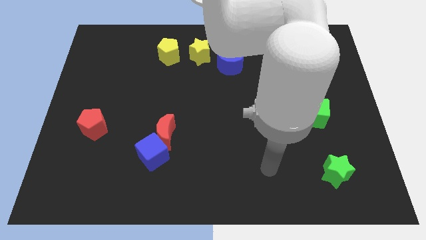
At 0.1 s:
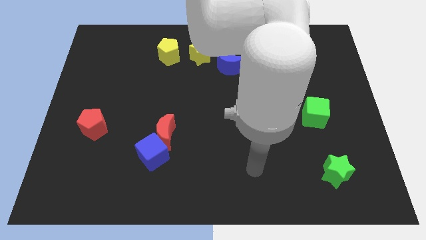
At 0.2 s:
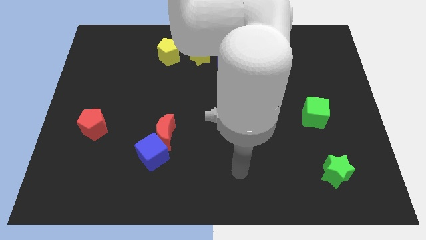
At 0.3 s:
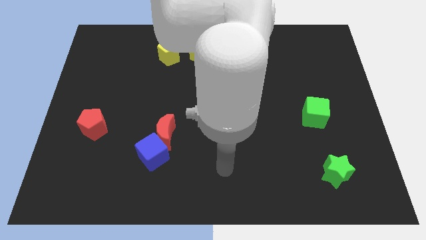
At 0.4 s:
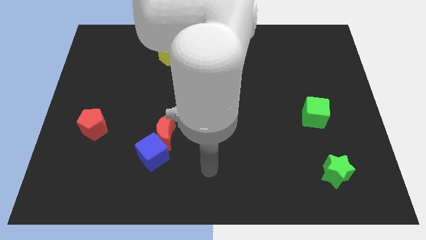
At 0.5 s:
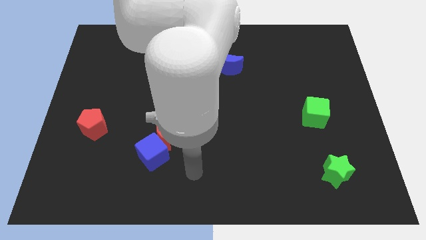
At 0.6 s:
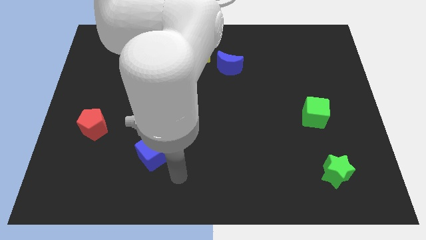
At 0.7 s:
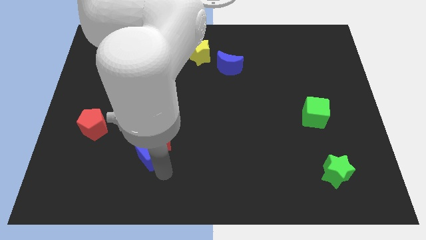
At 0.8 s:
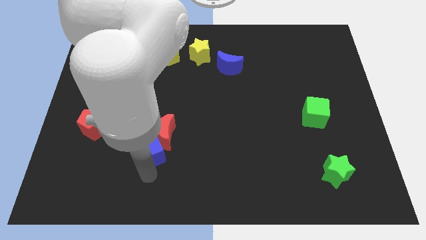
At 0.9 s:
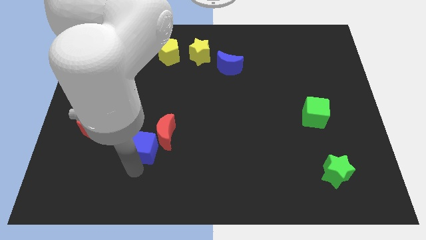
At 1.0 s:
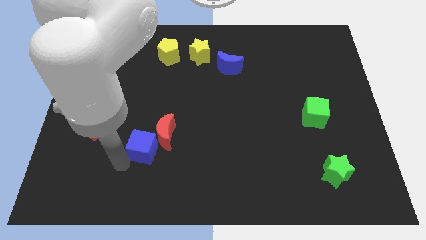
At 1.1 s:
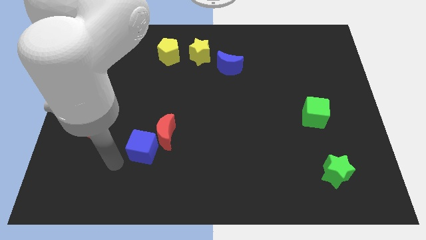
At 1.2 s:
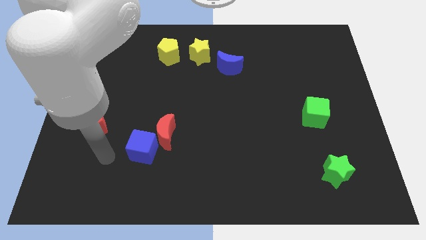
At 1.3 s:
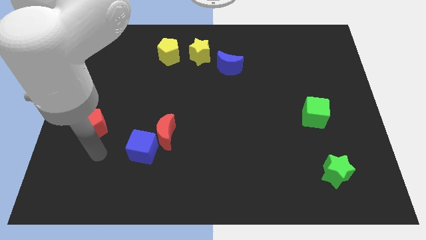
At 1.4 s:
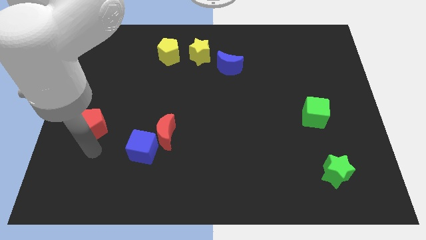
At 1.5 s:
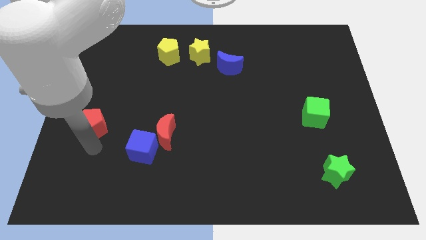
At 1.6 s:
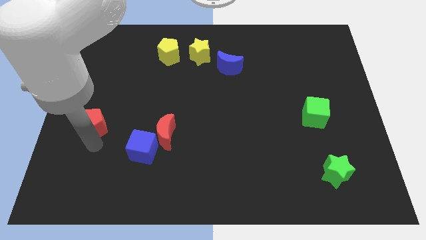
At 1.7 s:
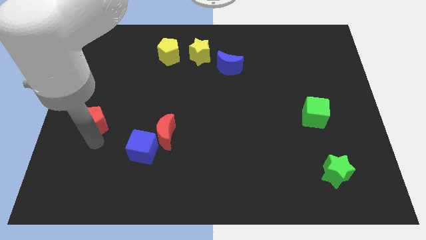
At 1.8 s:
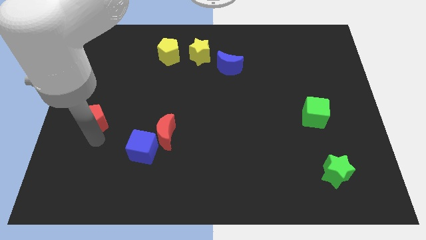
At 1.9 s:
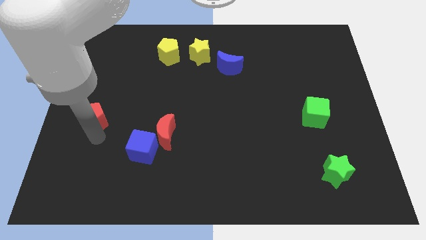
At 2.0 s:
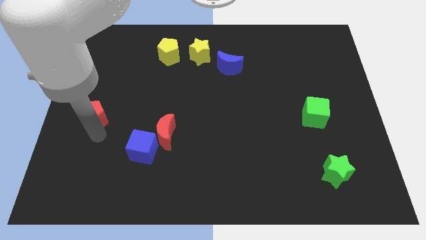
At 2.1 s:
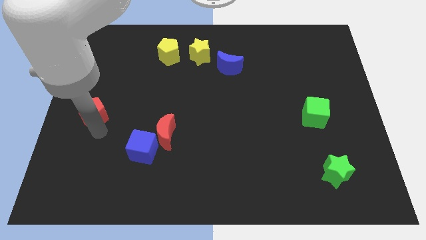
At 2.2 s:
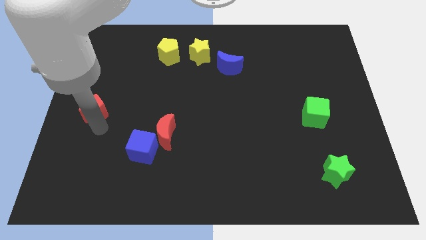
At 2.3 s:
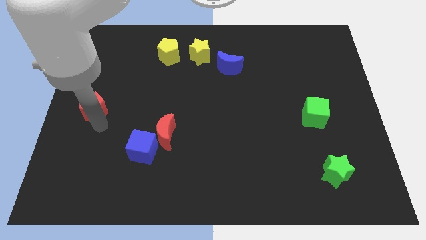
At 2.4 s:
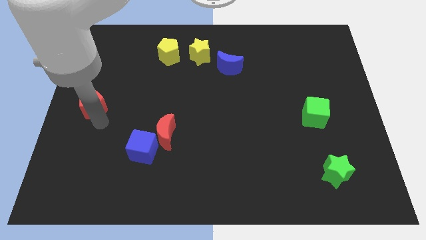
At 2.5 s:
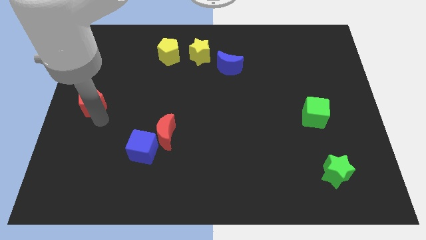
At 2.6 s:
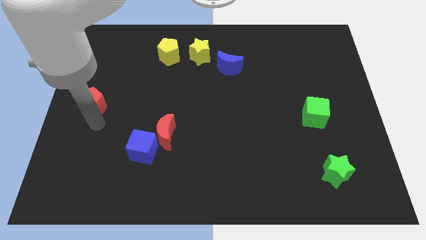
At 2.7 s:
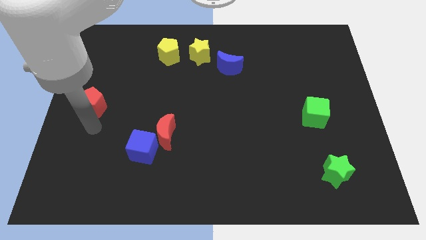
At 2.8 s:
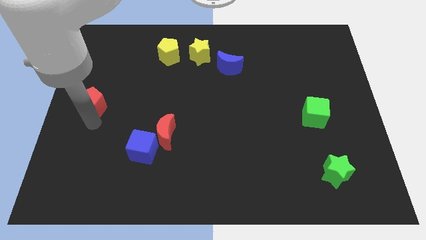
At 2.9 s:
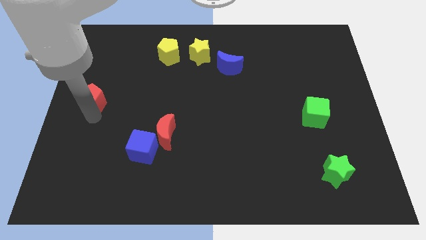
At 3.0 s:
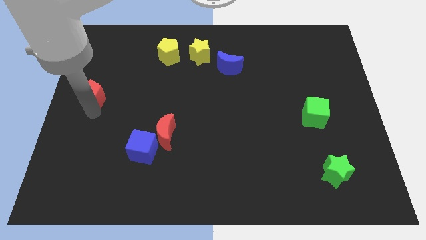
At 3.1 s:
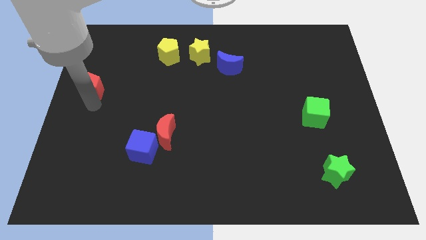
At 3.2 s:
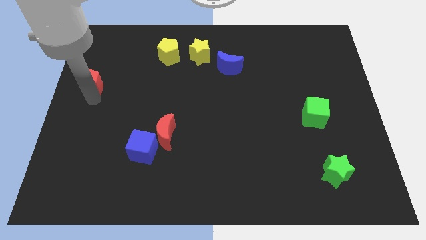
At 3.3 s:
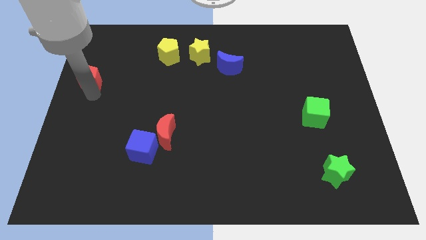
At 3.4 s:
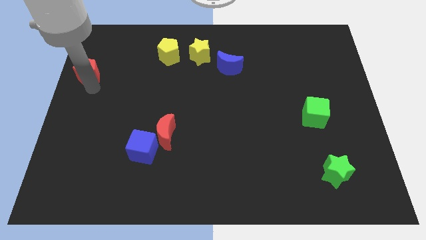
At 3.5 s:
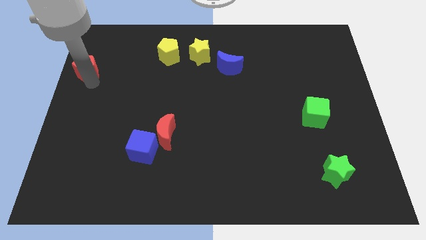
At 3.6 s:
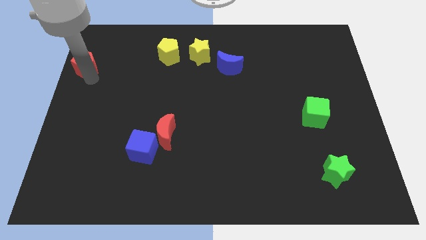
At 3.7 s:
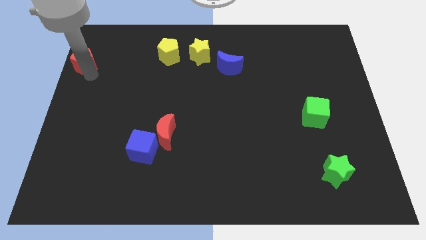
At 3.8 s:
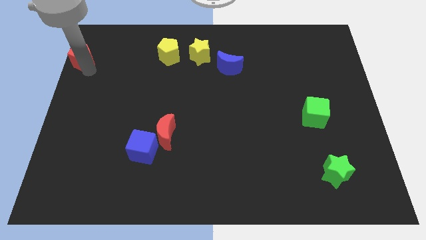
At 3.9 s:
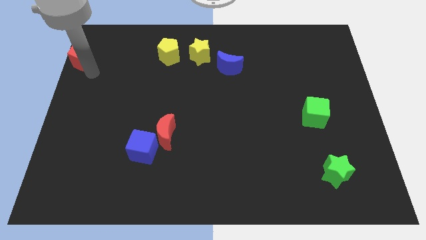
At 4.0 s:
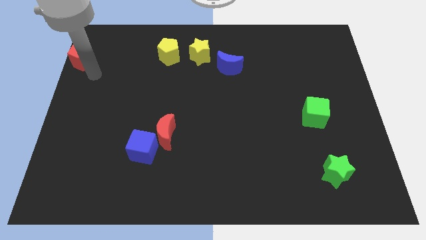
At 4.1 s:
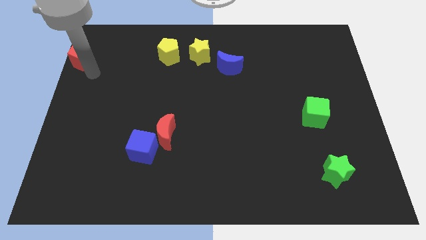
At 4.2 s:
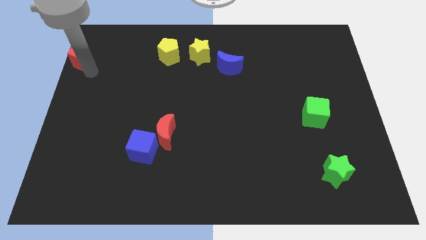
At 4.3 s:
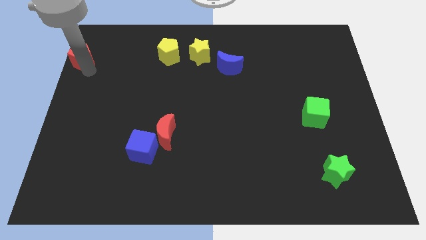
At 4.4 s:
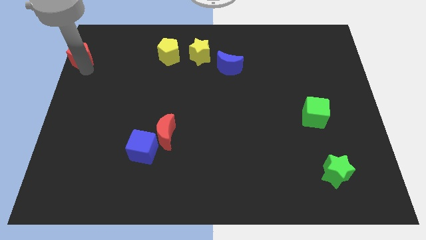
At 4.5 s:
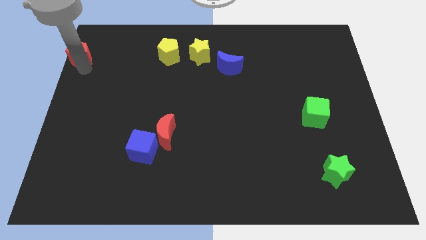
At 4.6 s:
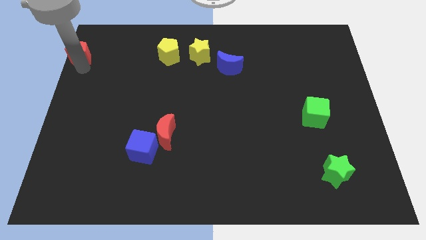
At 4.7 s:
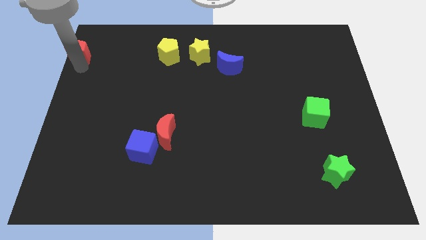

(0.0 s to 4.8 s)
move the red pentagon to the top left of the board

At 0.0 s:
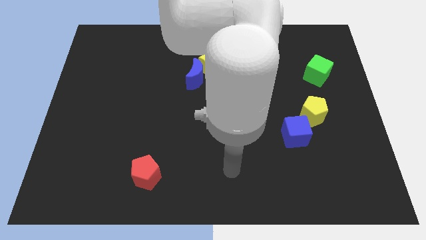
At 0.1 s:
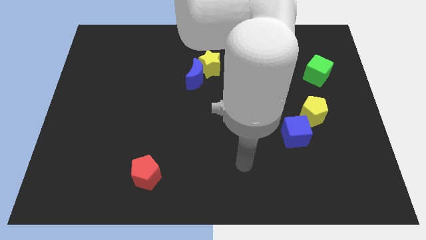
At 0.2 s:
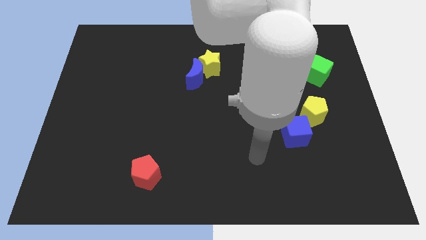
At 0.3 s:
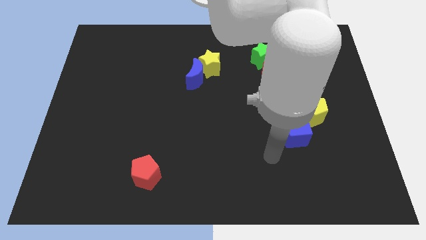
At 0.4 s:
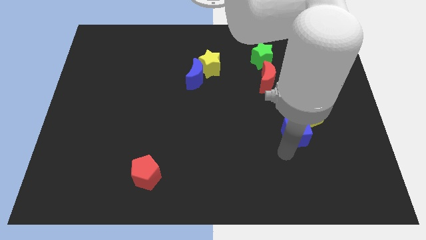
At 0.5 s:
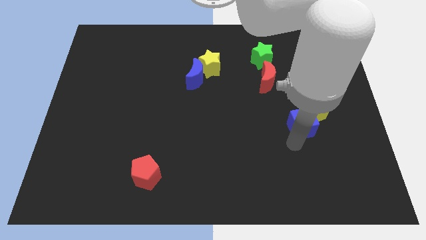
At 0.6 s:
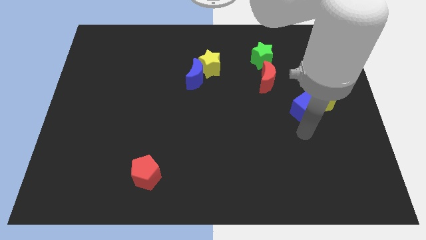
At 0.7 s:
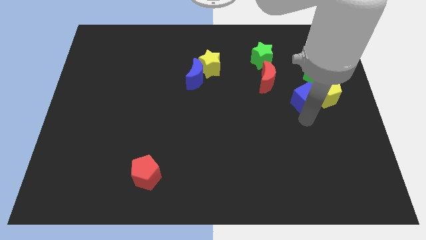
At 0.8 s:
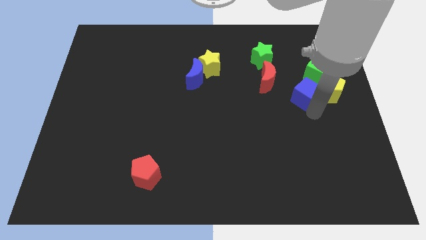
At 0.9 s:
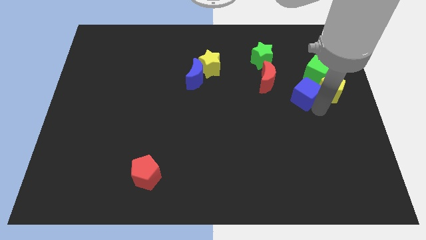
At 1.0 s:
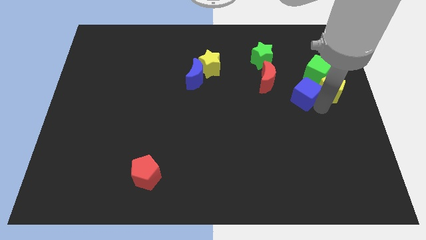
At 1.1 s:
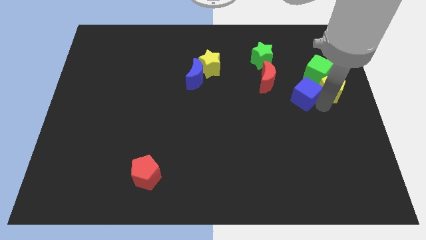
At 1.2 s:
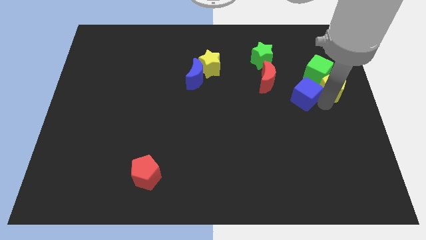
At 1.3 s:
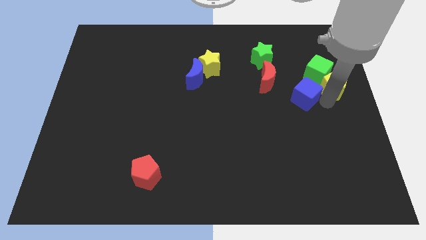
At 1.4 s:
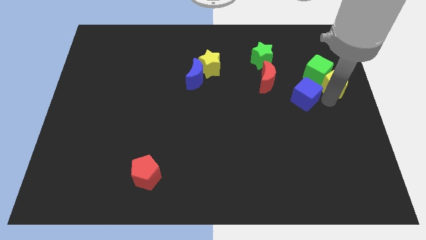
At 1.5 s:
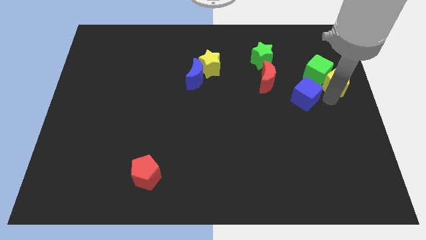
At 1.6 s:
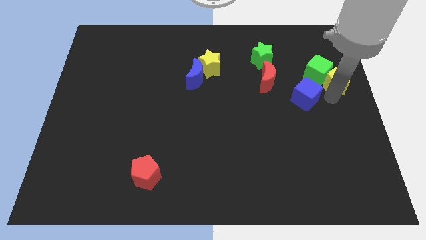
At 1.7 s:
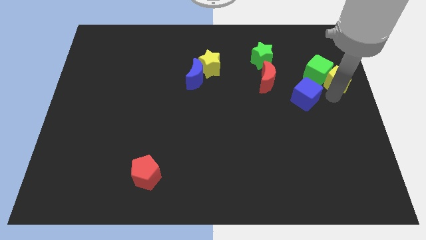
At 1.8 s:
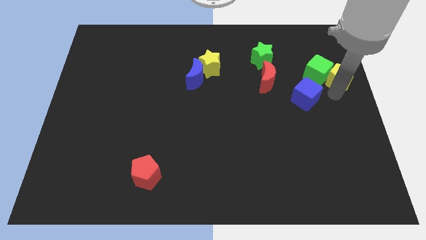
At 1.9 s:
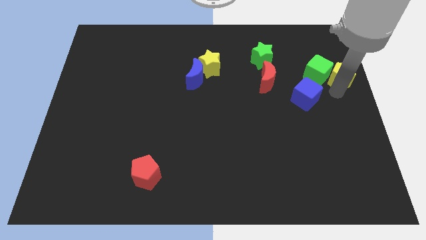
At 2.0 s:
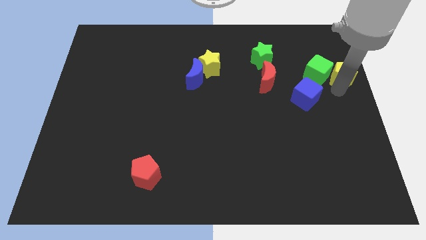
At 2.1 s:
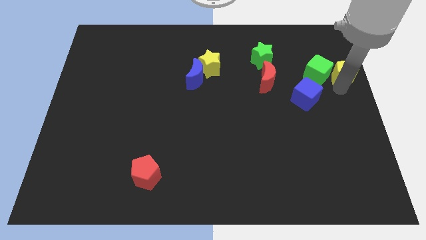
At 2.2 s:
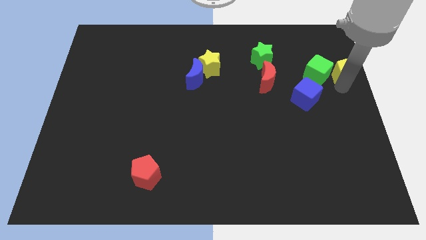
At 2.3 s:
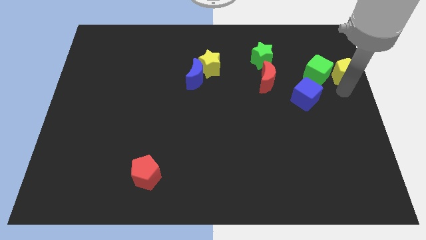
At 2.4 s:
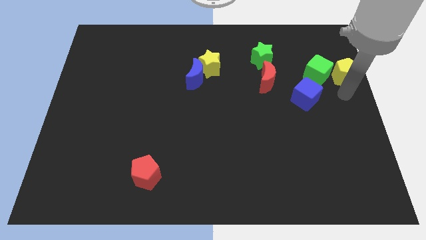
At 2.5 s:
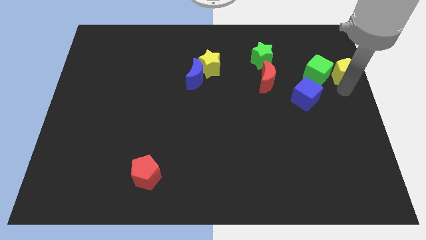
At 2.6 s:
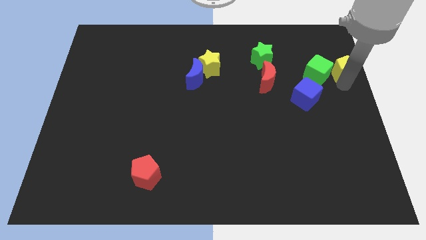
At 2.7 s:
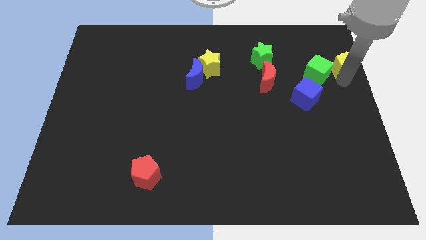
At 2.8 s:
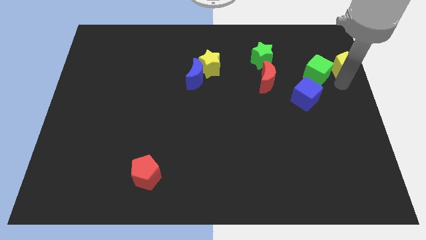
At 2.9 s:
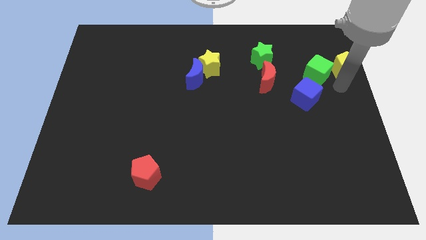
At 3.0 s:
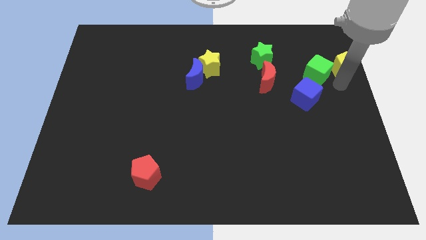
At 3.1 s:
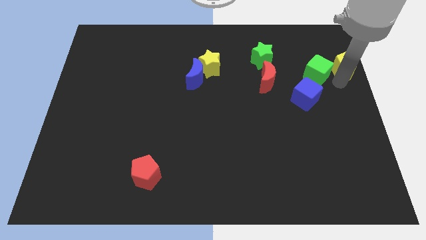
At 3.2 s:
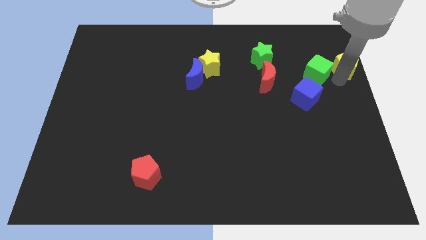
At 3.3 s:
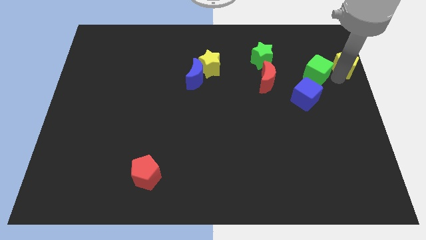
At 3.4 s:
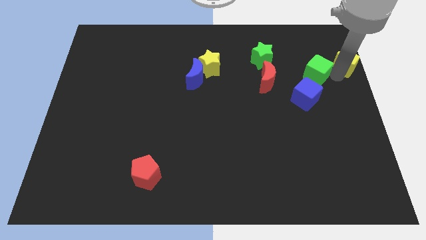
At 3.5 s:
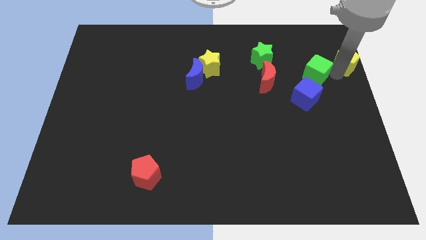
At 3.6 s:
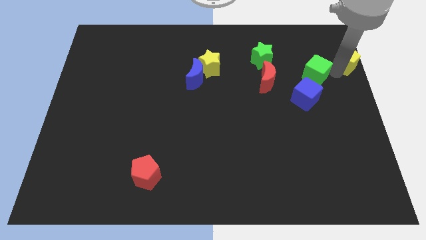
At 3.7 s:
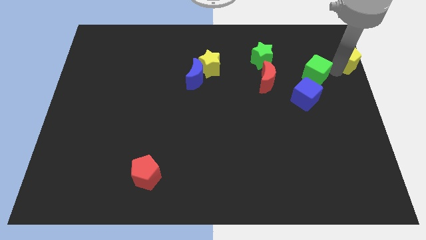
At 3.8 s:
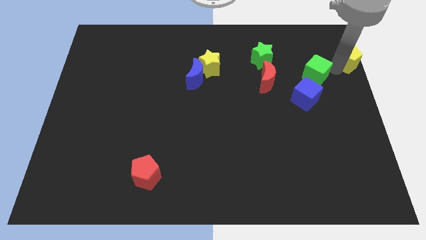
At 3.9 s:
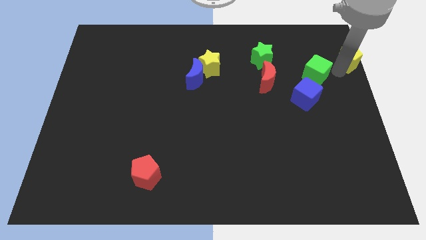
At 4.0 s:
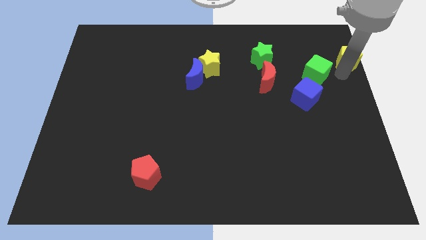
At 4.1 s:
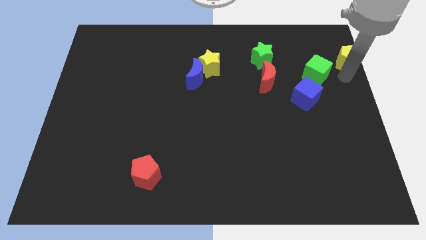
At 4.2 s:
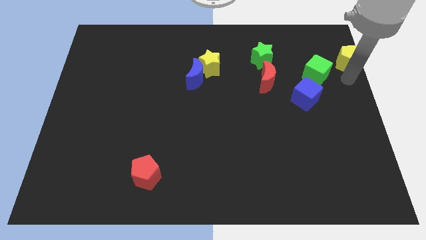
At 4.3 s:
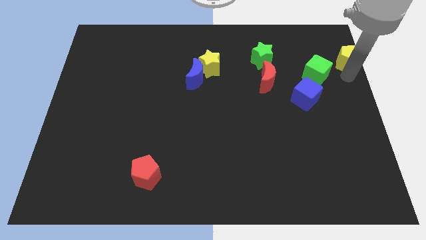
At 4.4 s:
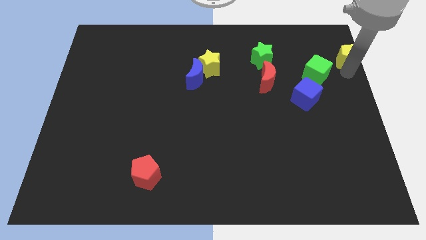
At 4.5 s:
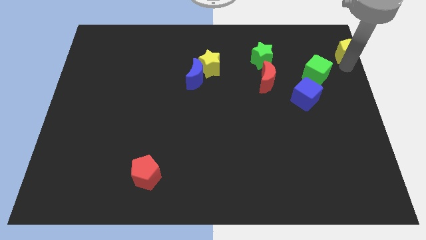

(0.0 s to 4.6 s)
slide the yellow pentagon to the top right corner
